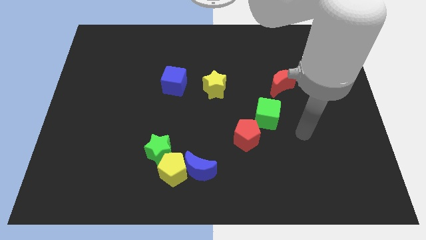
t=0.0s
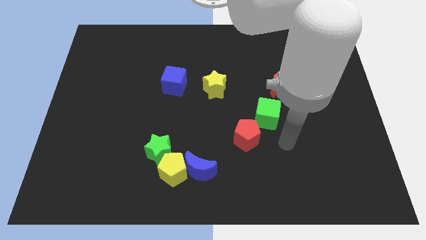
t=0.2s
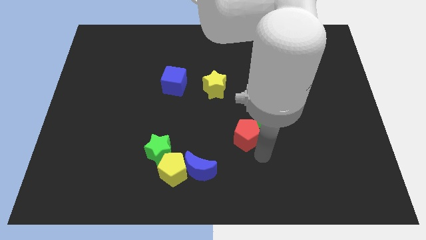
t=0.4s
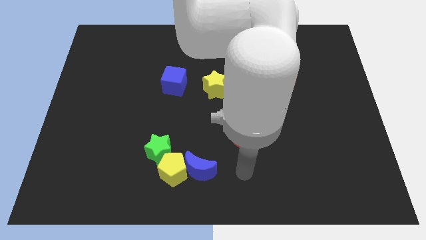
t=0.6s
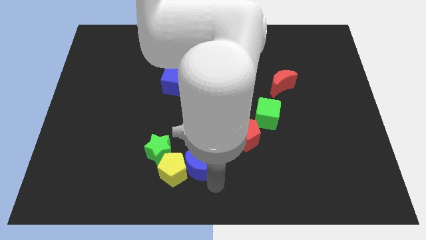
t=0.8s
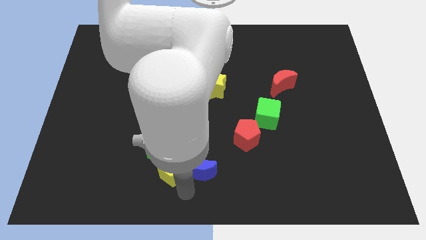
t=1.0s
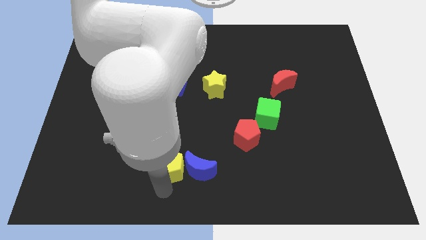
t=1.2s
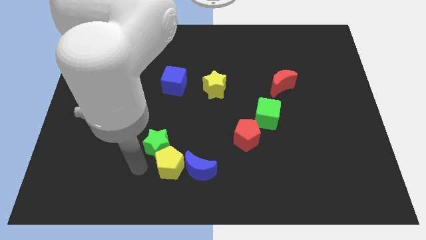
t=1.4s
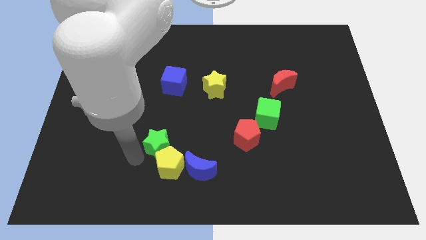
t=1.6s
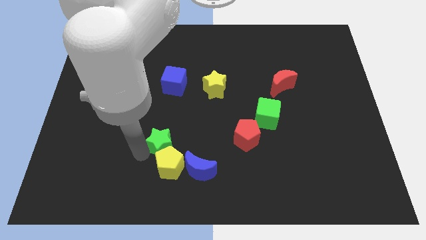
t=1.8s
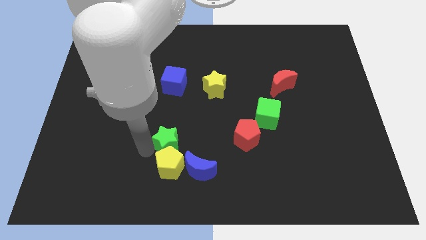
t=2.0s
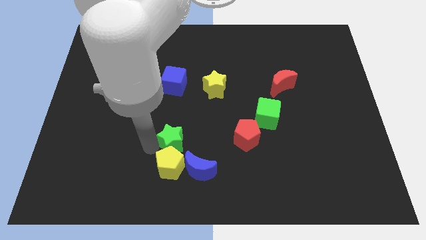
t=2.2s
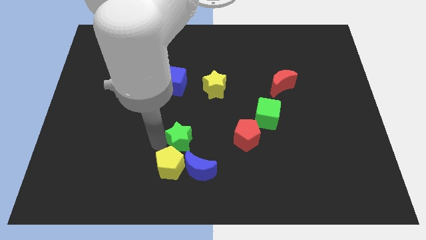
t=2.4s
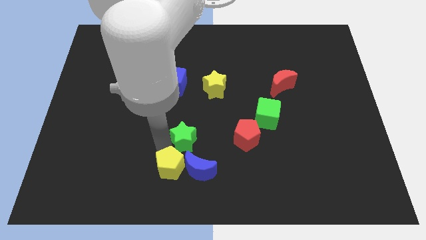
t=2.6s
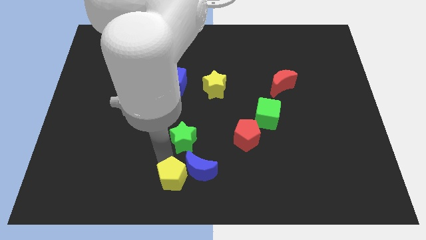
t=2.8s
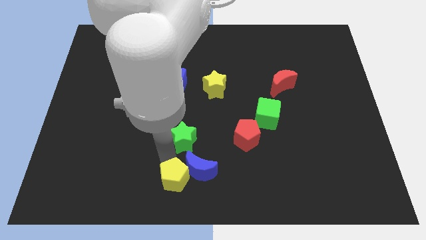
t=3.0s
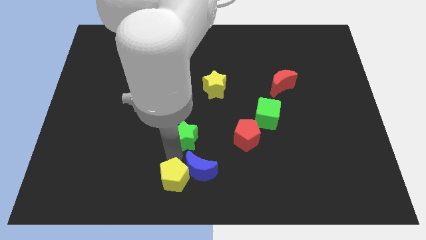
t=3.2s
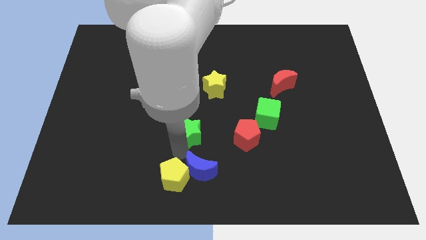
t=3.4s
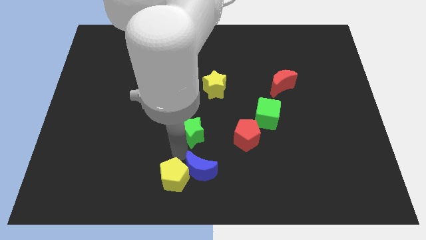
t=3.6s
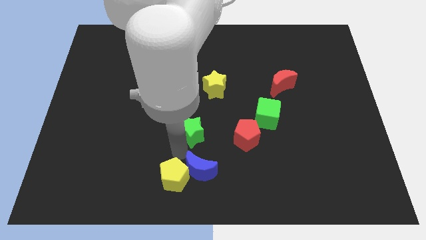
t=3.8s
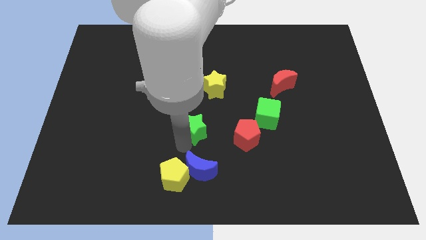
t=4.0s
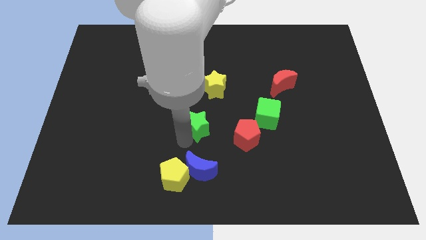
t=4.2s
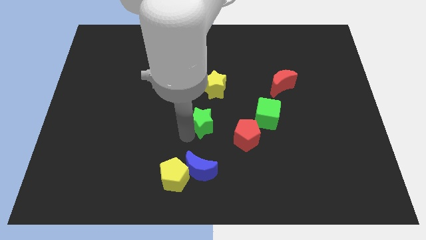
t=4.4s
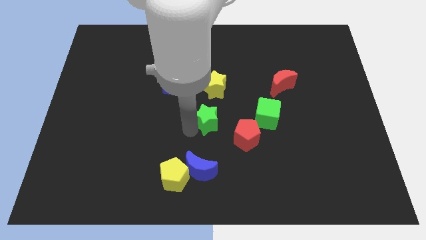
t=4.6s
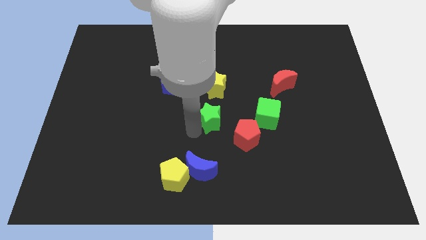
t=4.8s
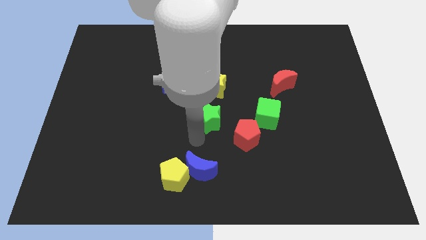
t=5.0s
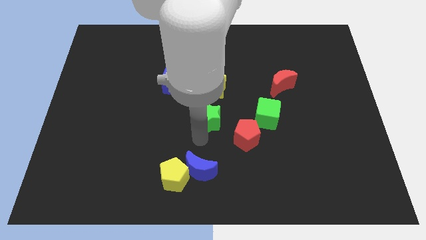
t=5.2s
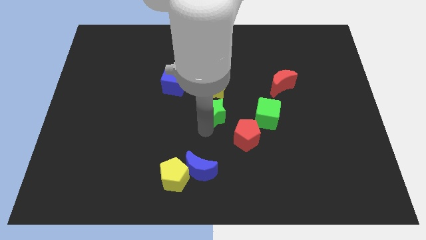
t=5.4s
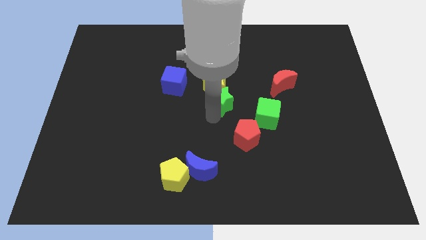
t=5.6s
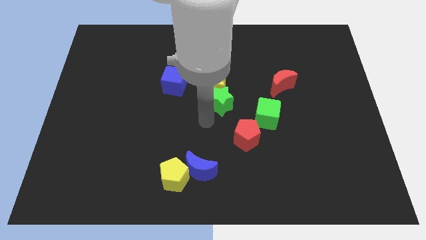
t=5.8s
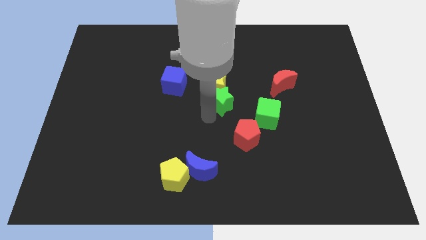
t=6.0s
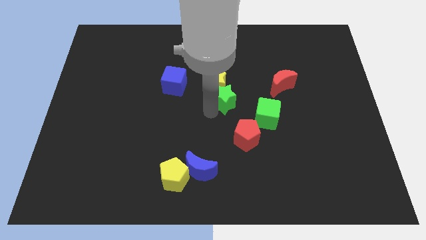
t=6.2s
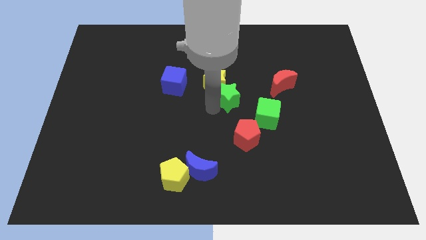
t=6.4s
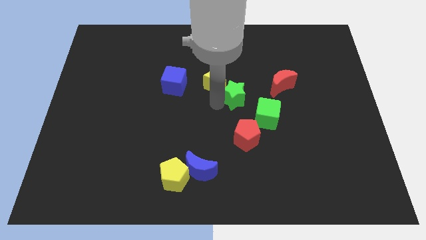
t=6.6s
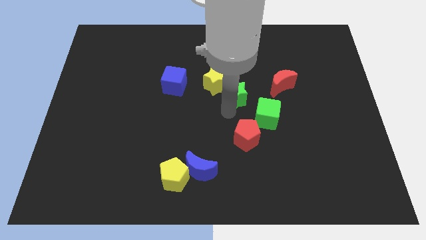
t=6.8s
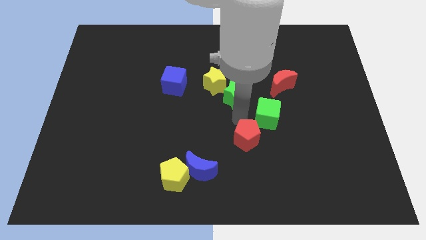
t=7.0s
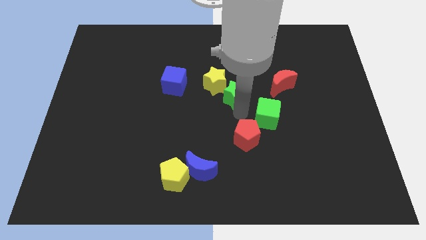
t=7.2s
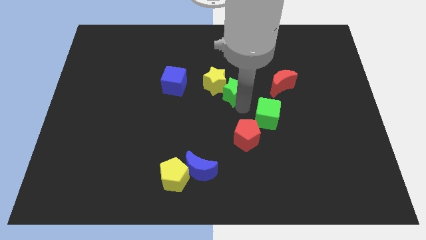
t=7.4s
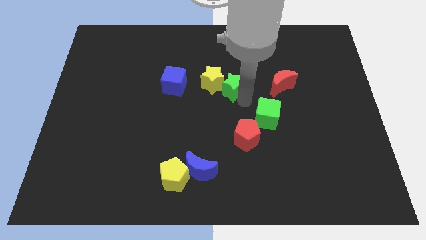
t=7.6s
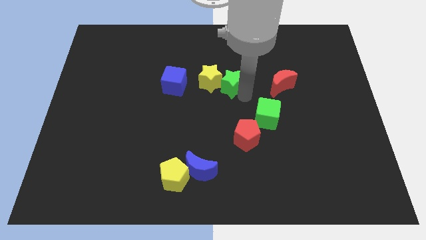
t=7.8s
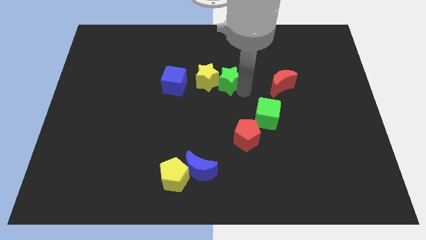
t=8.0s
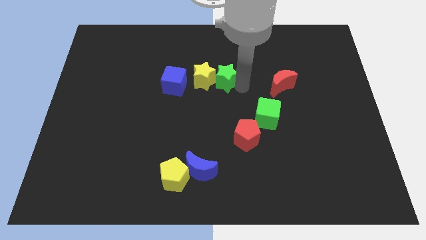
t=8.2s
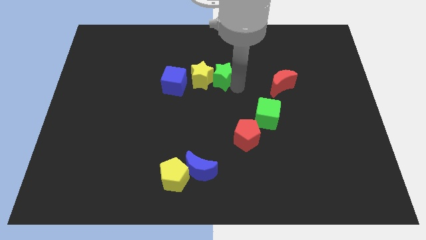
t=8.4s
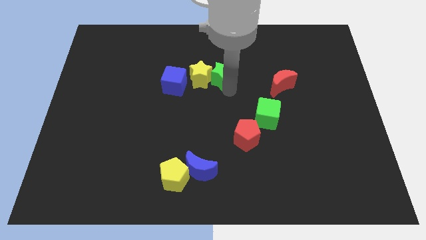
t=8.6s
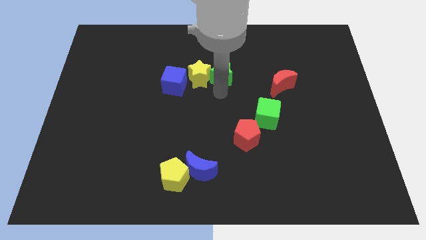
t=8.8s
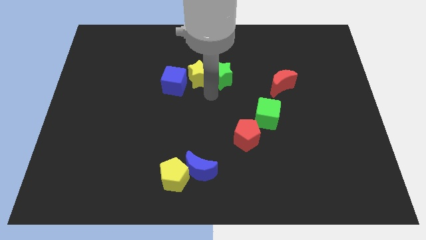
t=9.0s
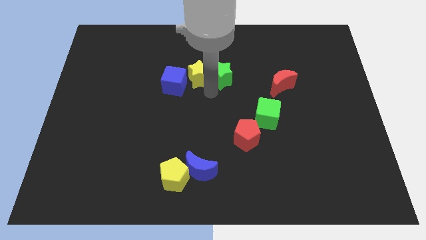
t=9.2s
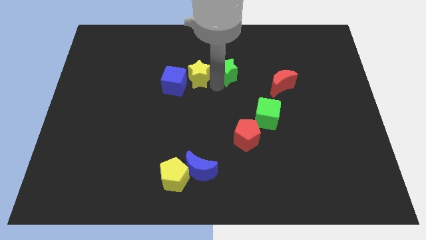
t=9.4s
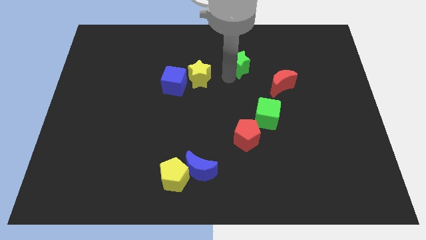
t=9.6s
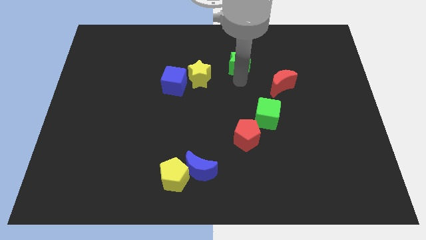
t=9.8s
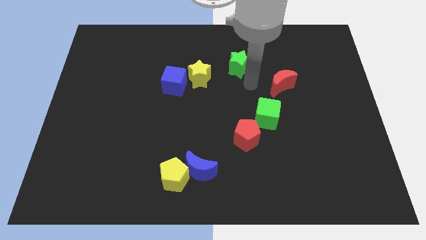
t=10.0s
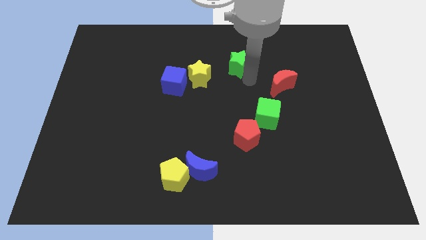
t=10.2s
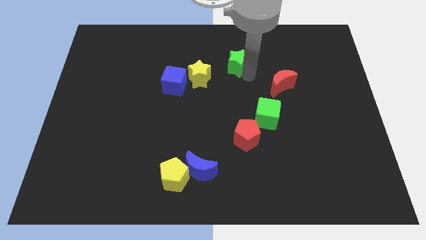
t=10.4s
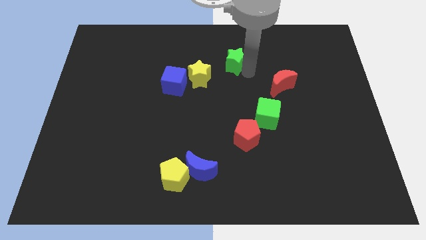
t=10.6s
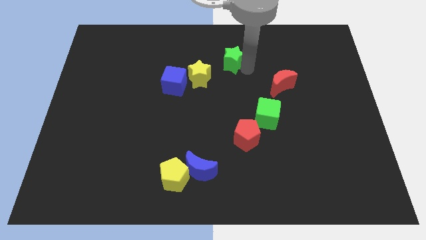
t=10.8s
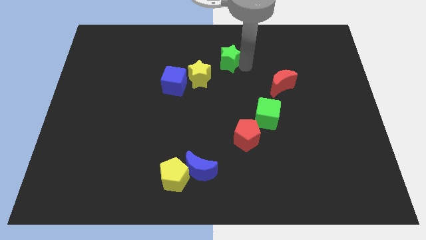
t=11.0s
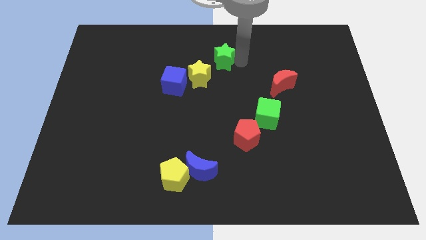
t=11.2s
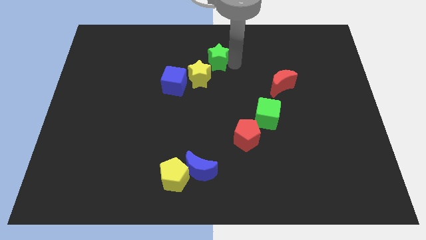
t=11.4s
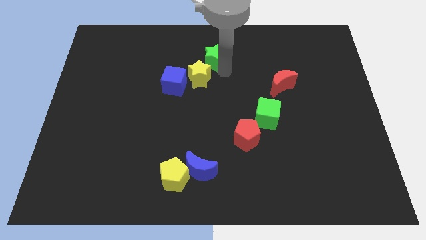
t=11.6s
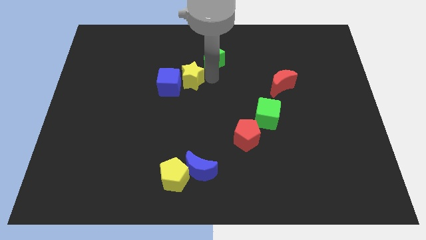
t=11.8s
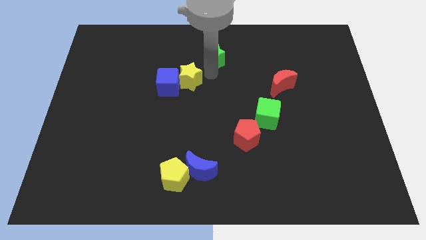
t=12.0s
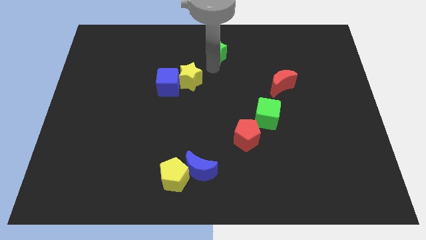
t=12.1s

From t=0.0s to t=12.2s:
push the green star to the towards your base

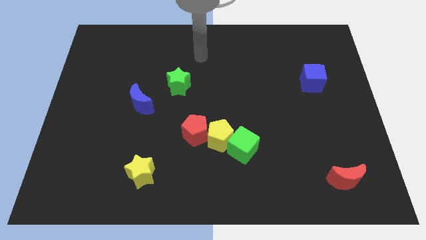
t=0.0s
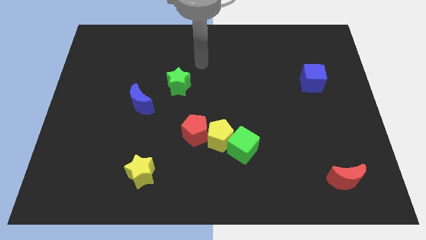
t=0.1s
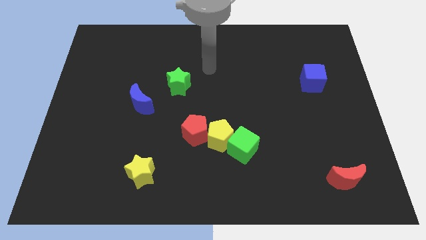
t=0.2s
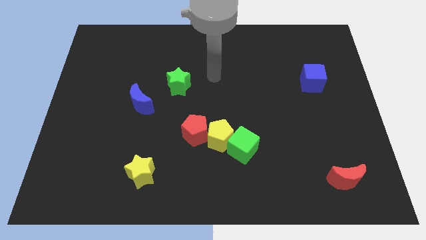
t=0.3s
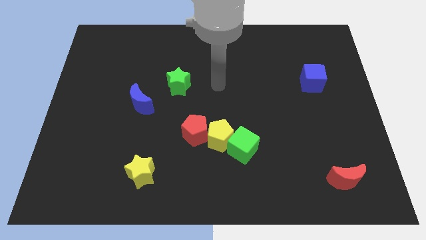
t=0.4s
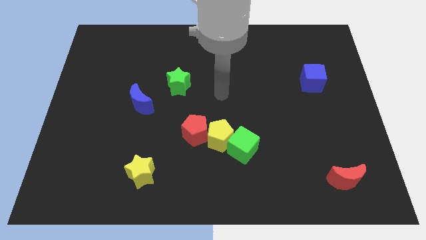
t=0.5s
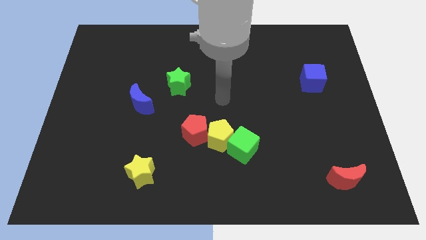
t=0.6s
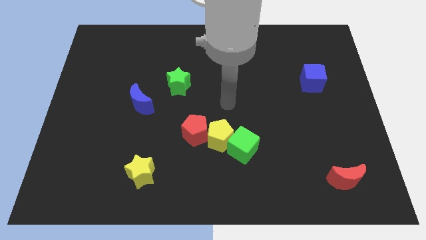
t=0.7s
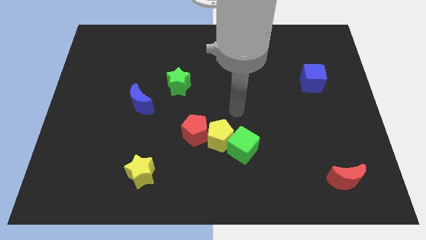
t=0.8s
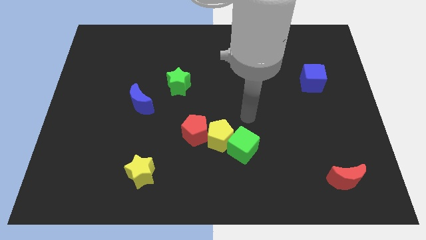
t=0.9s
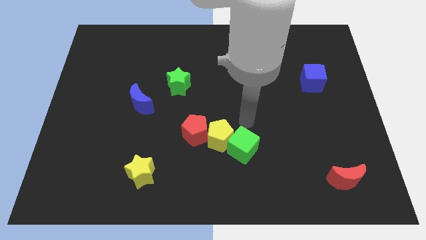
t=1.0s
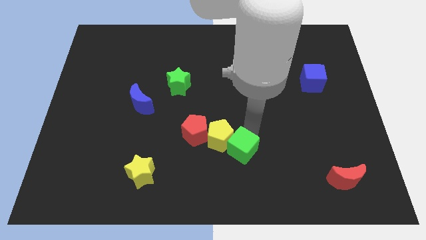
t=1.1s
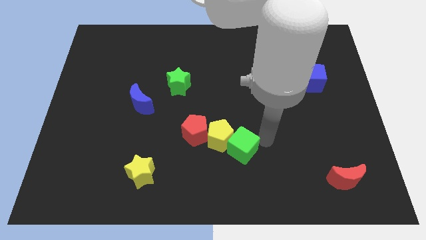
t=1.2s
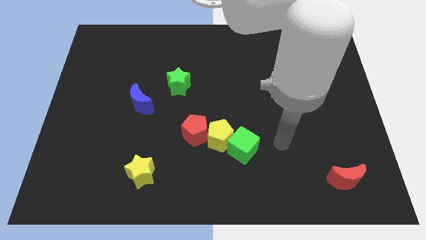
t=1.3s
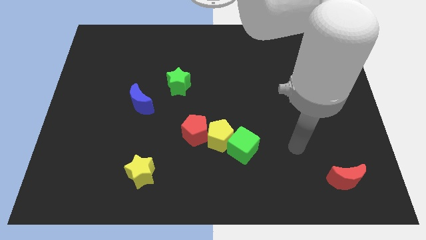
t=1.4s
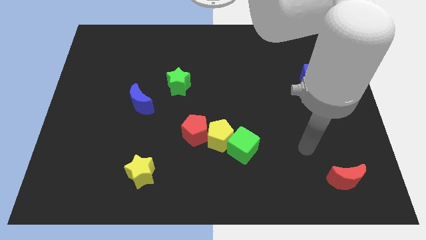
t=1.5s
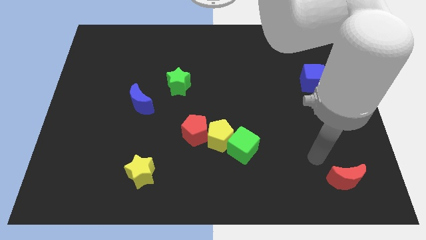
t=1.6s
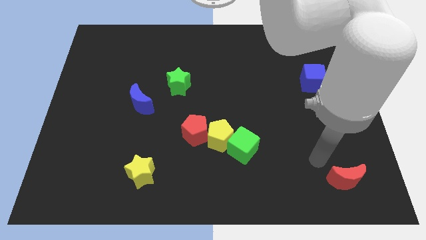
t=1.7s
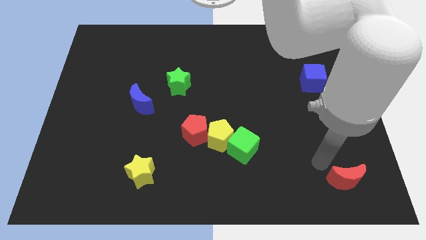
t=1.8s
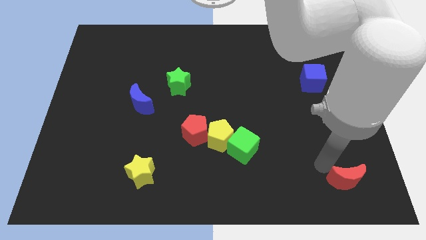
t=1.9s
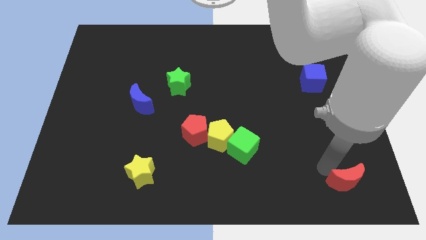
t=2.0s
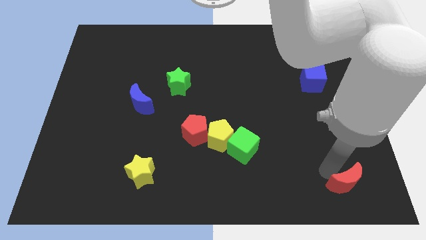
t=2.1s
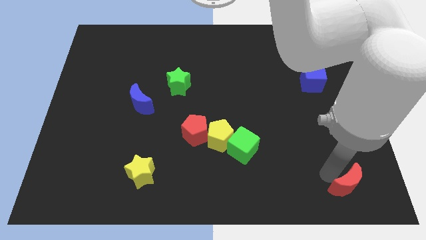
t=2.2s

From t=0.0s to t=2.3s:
slide the red moon to the bottom right corner
